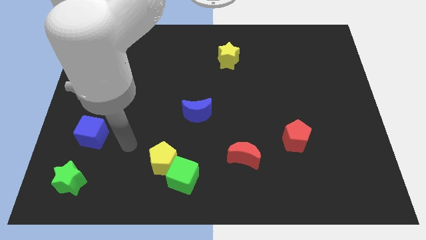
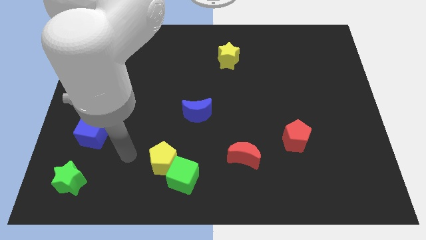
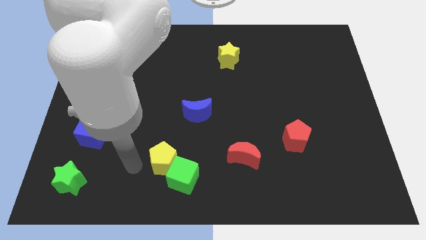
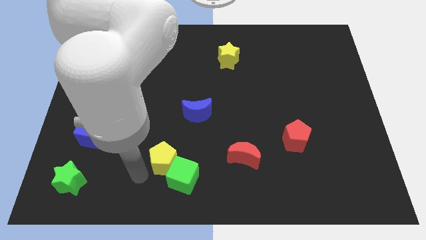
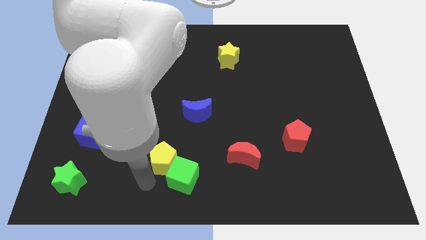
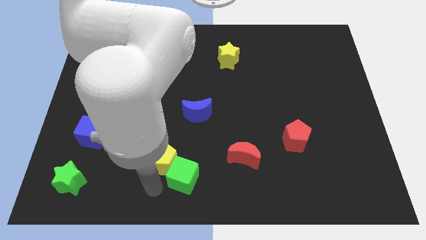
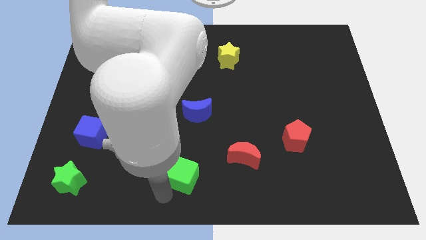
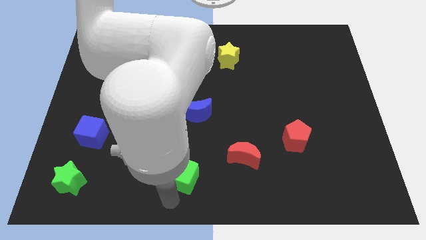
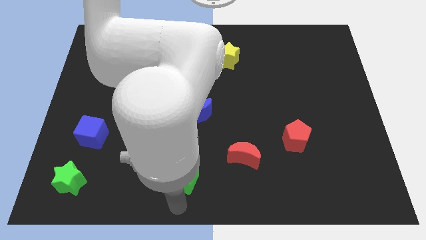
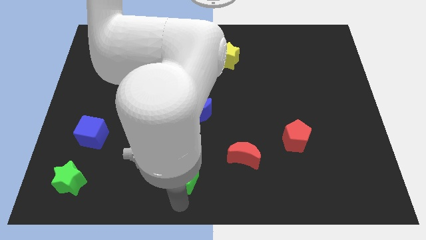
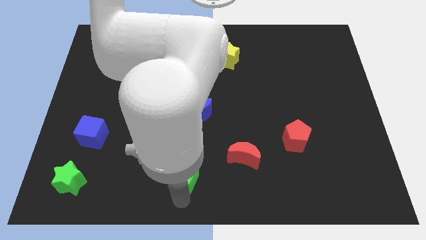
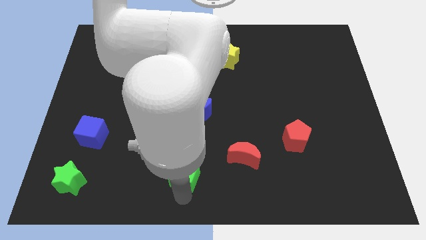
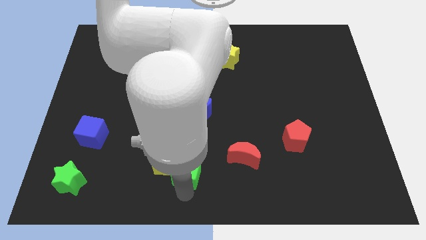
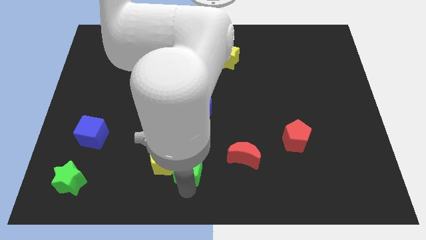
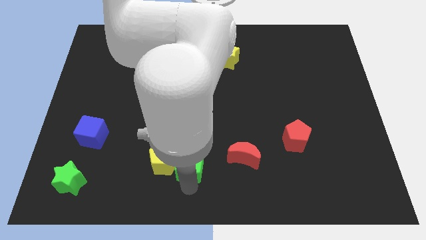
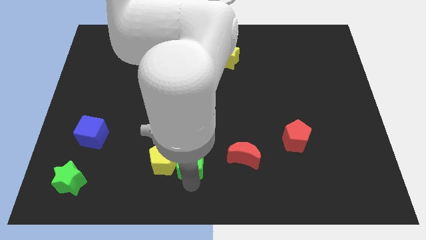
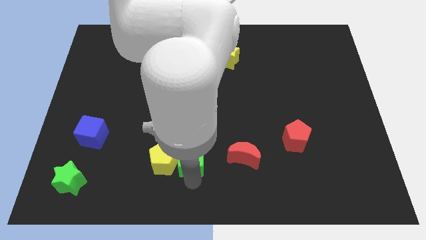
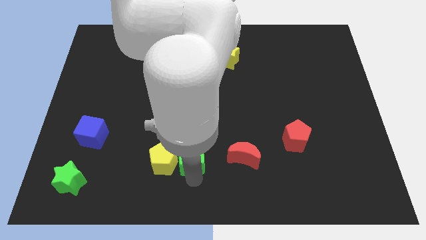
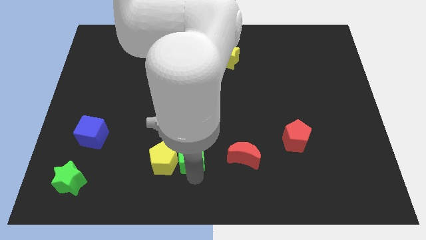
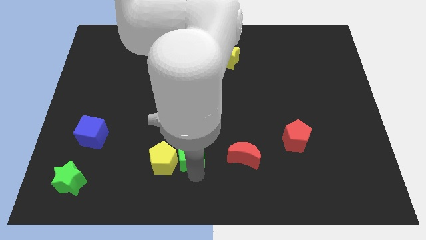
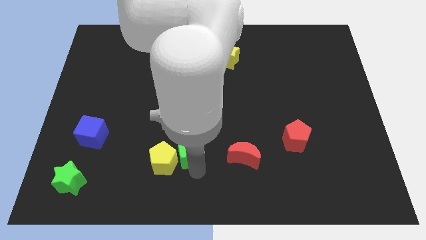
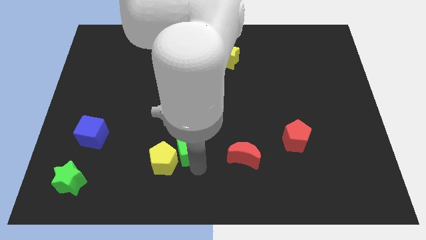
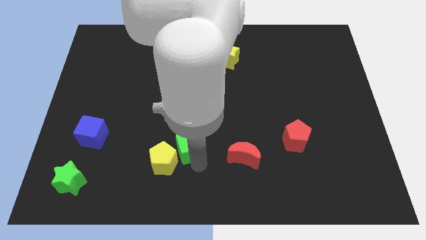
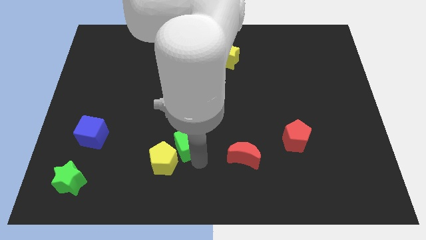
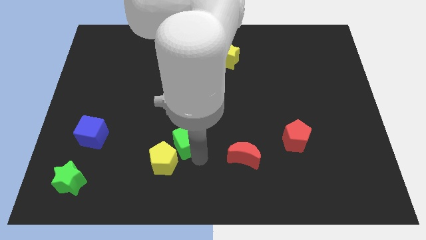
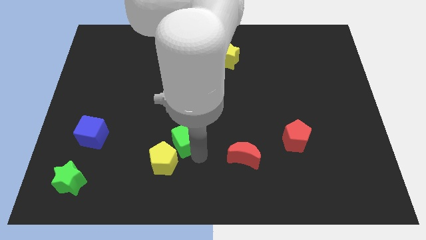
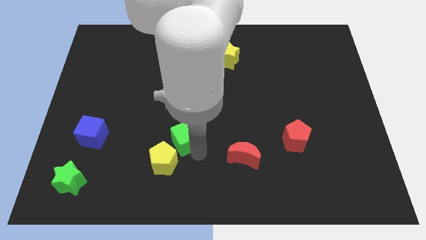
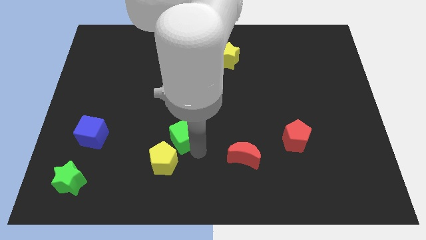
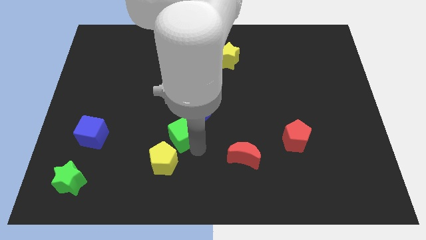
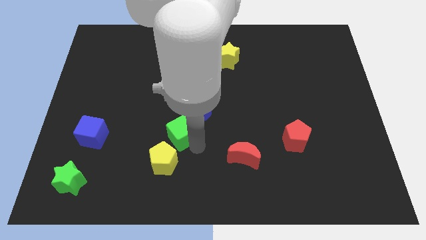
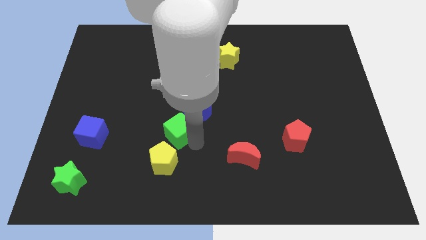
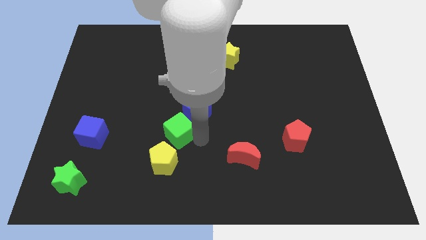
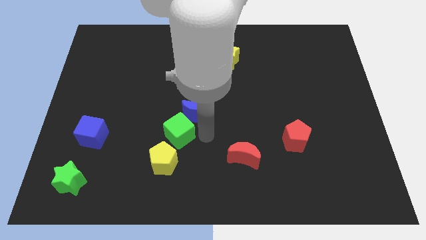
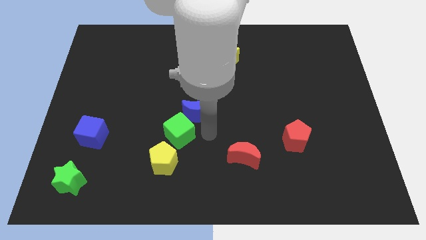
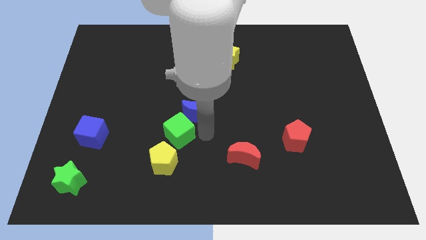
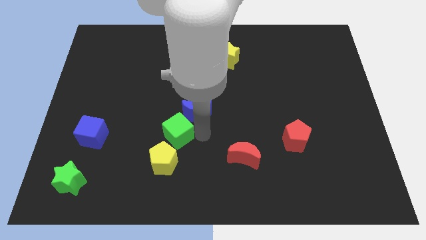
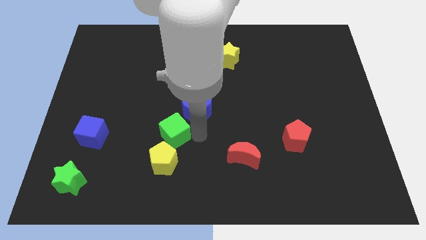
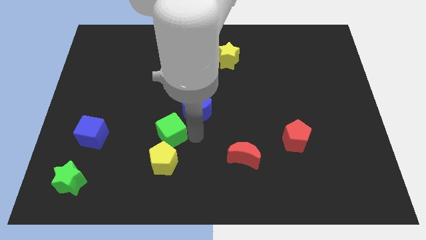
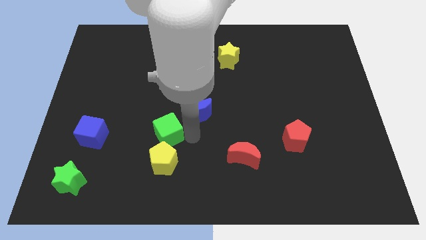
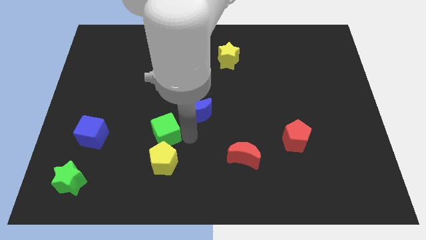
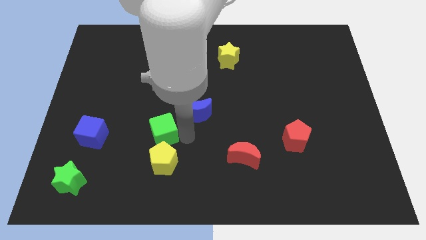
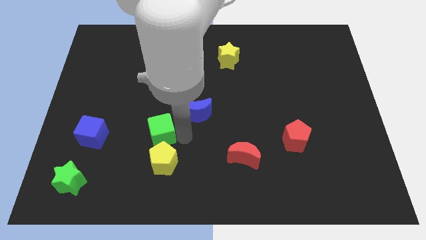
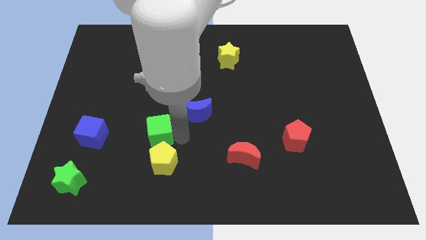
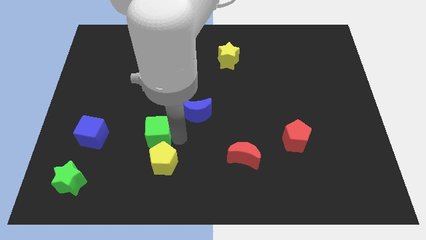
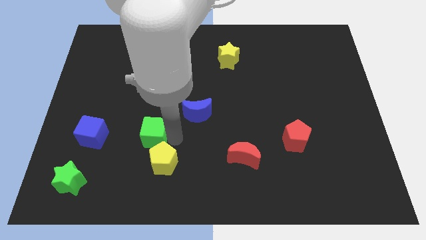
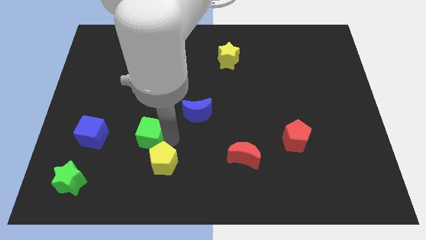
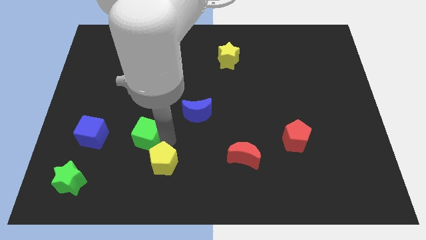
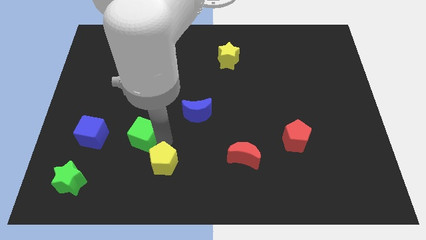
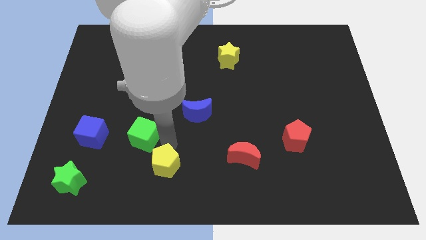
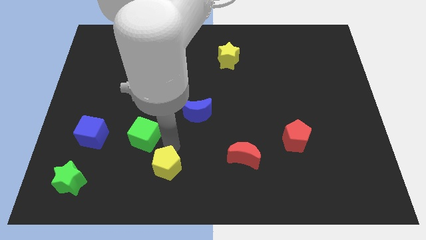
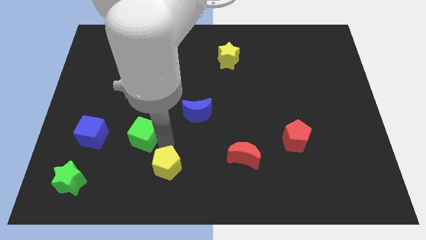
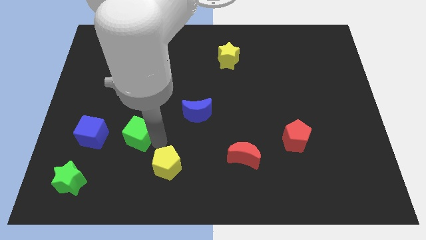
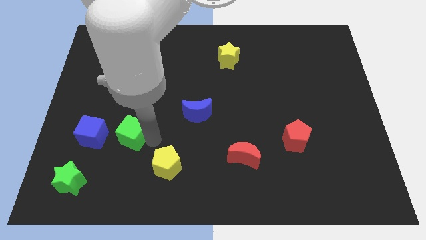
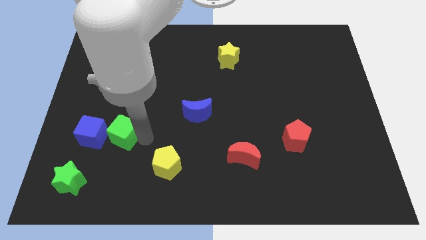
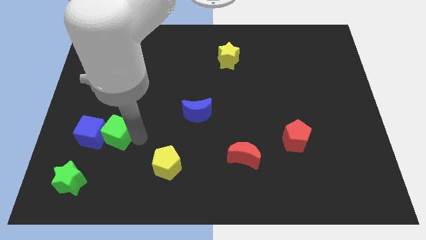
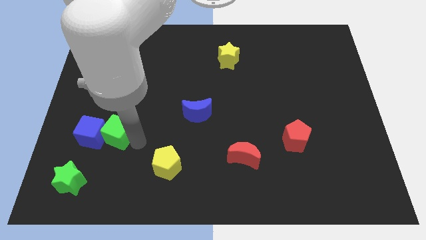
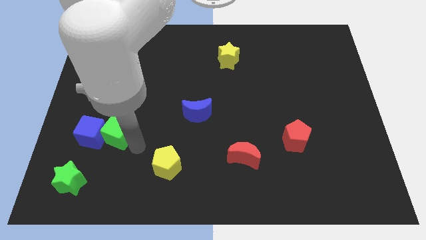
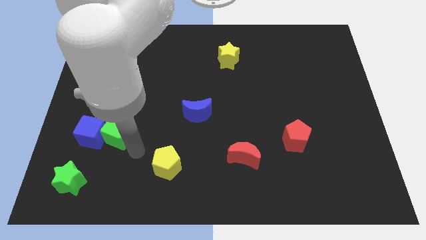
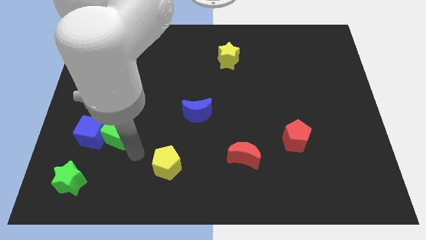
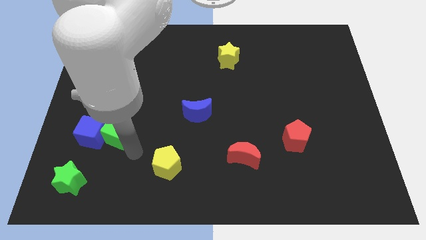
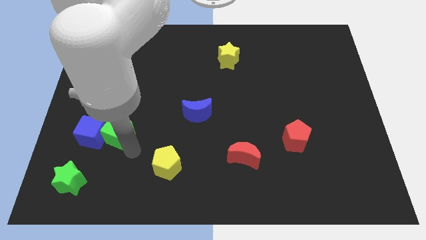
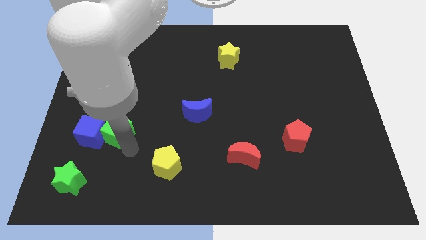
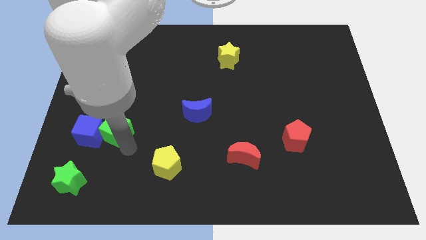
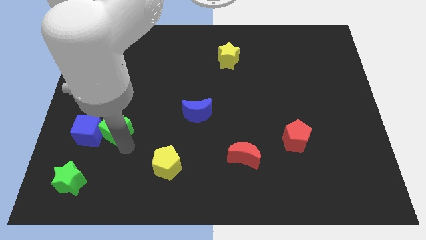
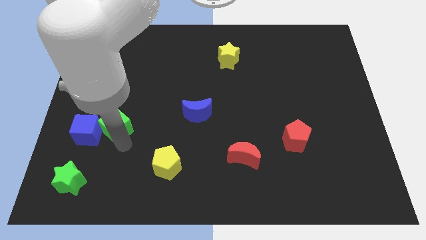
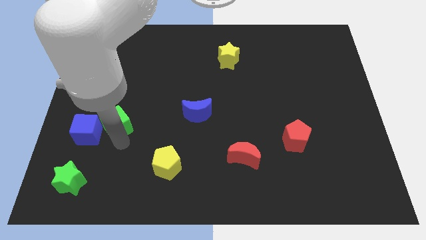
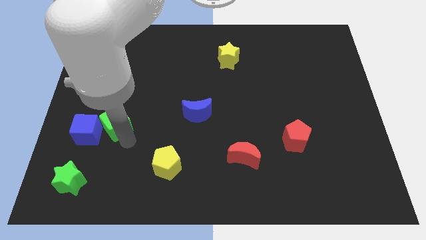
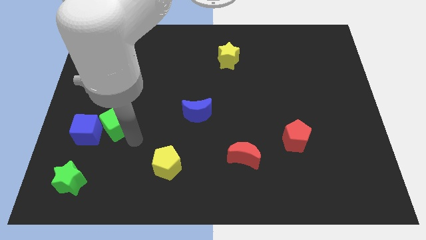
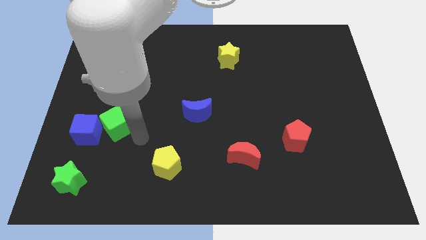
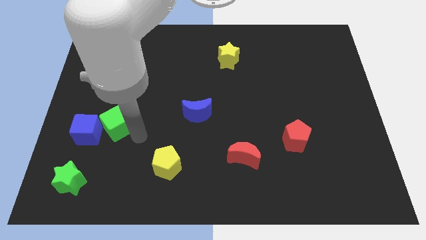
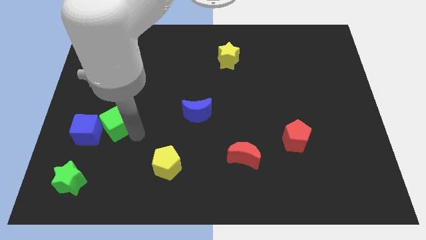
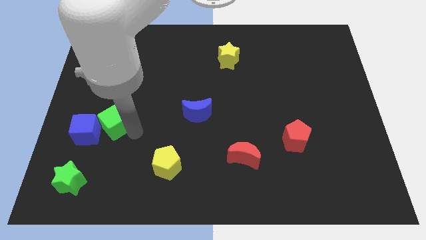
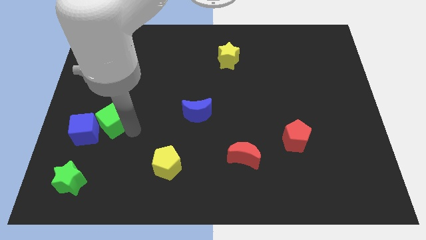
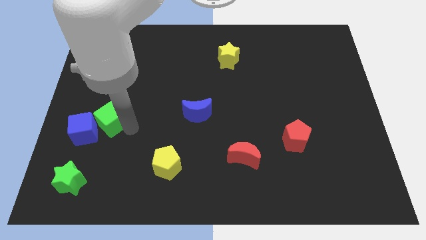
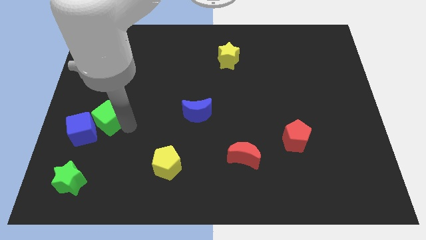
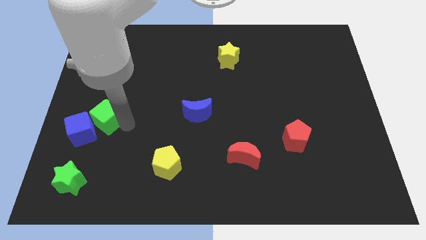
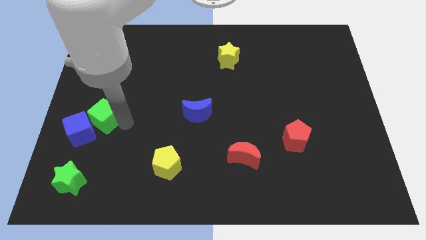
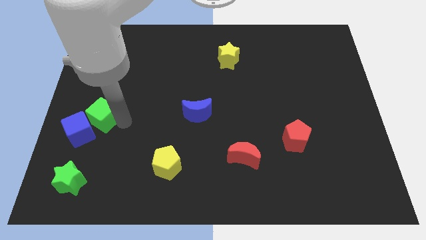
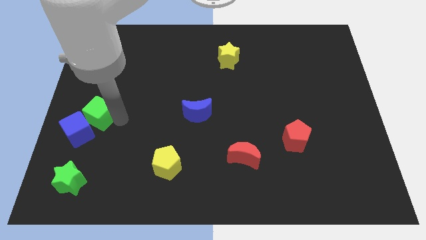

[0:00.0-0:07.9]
slide the green cube to the center left
